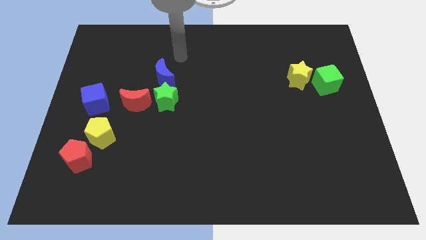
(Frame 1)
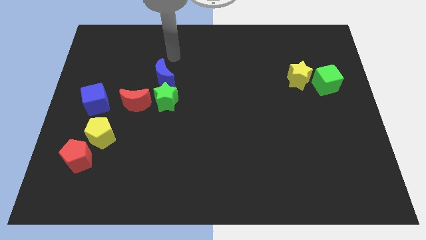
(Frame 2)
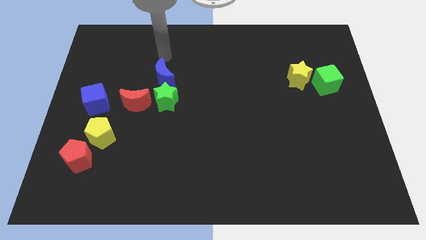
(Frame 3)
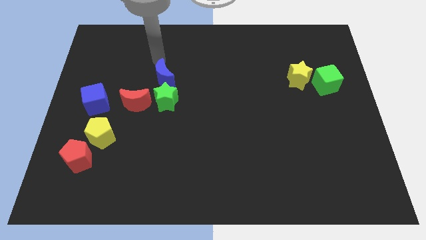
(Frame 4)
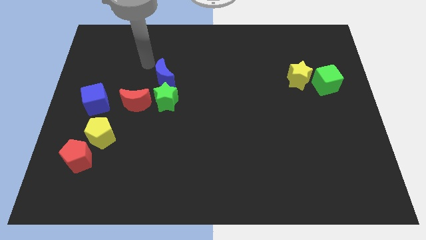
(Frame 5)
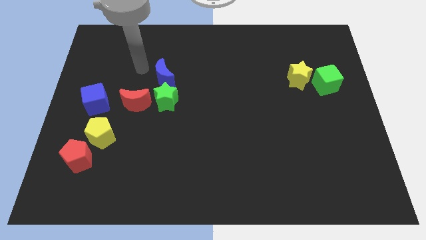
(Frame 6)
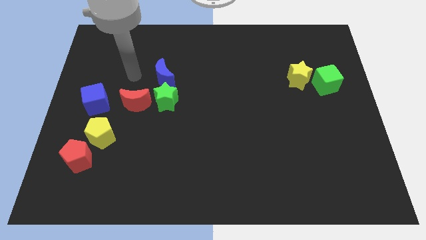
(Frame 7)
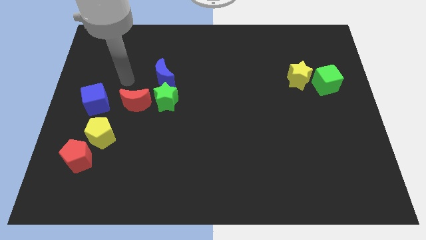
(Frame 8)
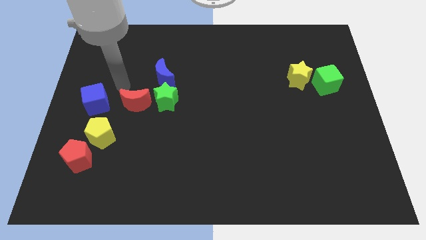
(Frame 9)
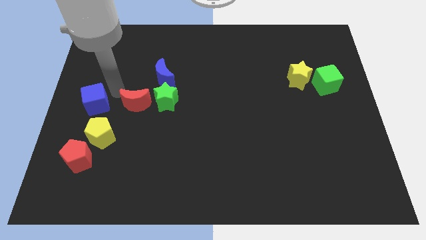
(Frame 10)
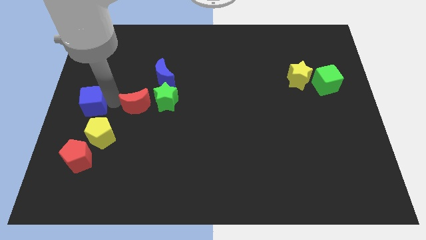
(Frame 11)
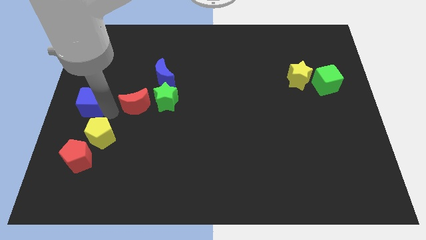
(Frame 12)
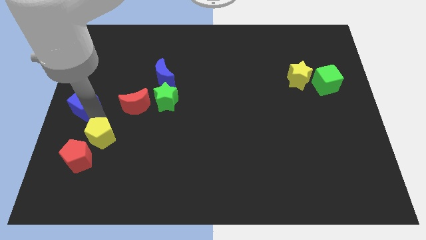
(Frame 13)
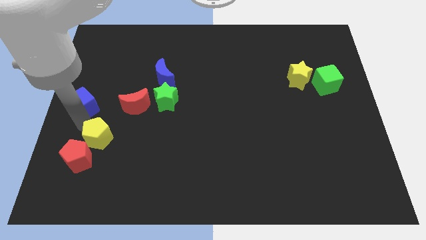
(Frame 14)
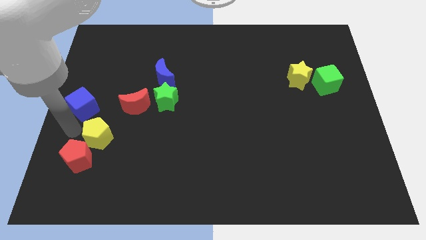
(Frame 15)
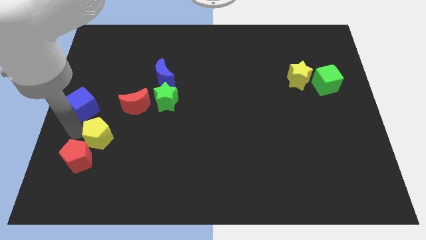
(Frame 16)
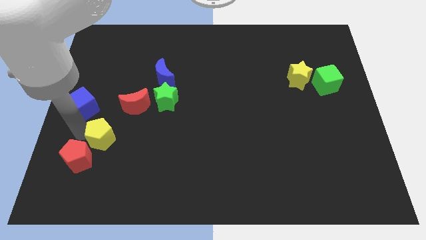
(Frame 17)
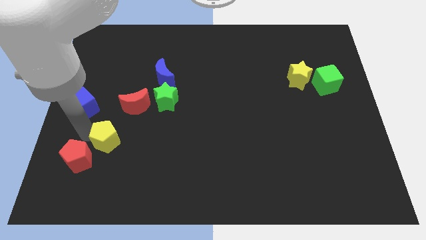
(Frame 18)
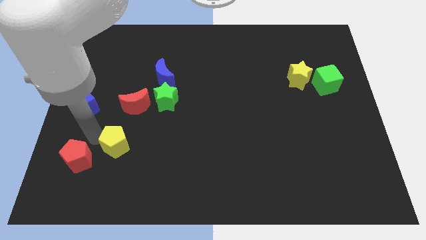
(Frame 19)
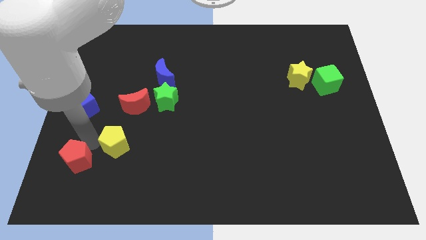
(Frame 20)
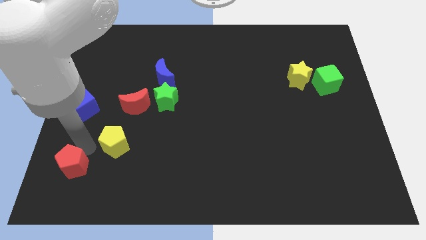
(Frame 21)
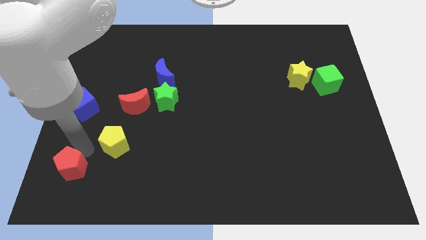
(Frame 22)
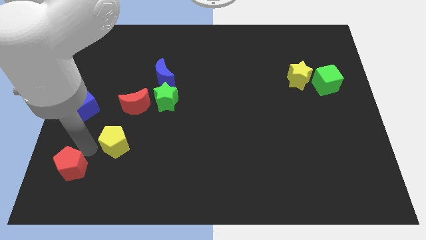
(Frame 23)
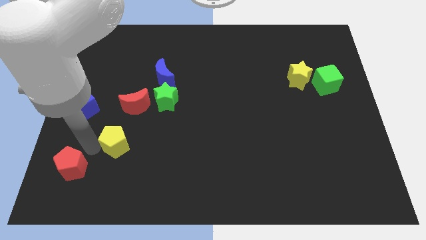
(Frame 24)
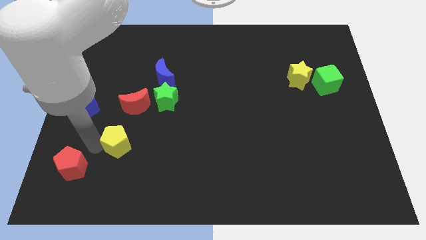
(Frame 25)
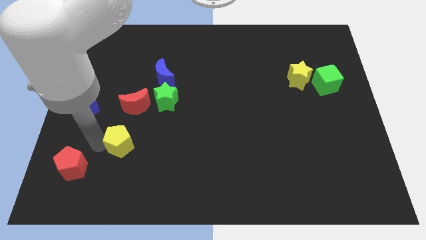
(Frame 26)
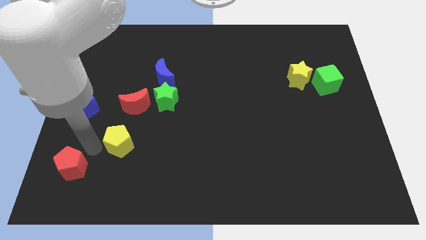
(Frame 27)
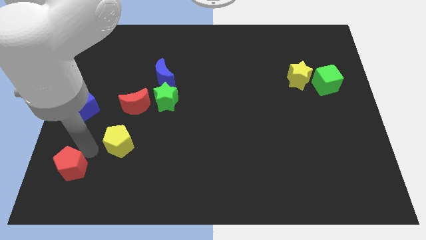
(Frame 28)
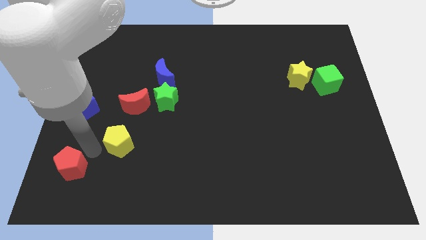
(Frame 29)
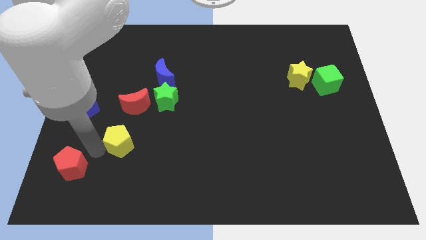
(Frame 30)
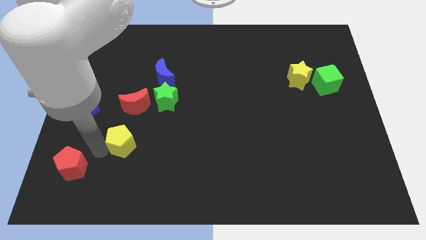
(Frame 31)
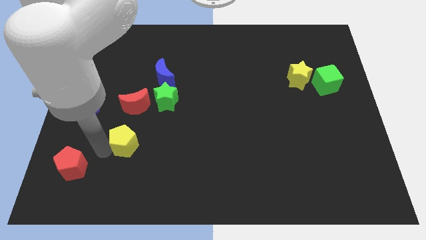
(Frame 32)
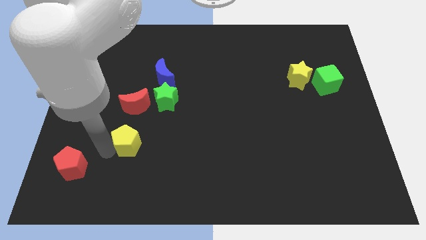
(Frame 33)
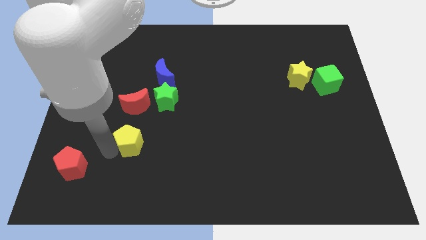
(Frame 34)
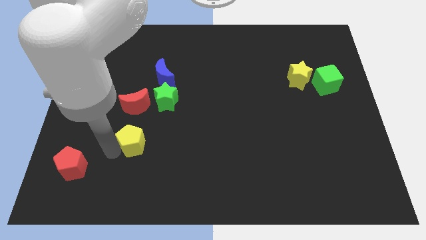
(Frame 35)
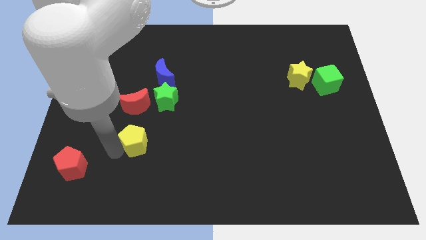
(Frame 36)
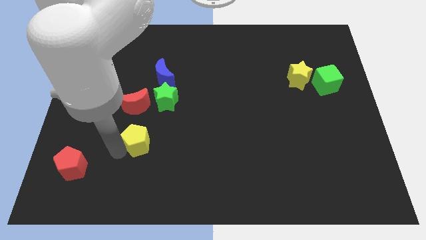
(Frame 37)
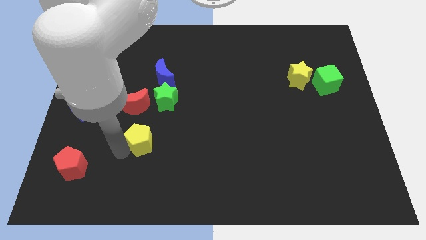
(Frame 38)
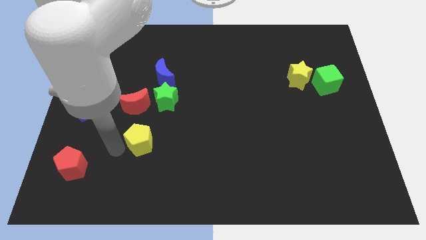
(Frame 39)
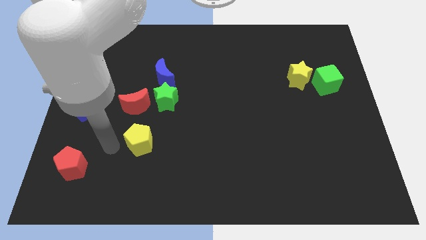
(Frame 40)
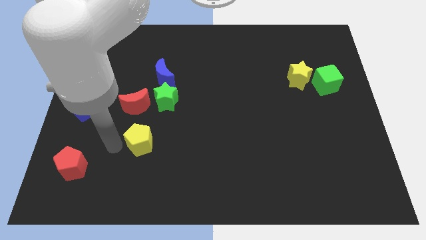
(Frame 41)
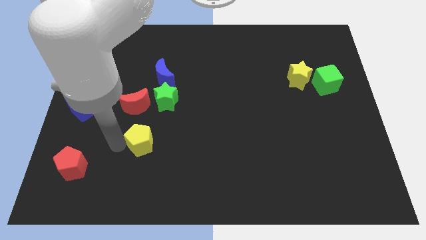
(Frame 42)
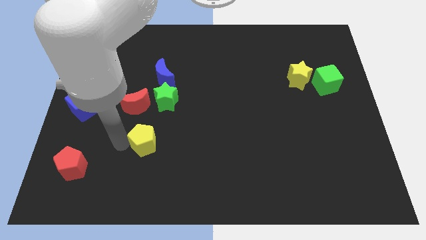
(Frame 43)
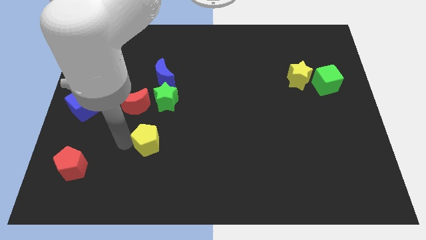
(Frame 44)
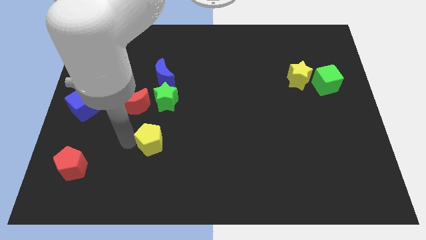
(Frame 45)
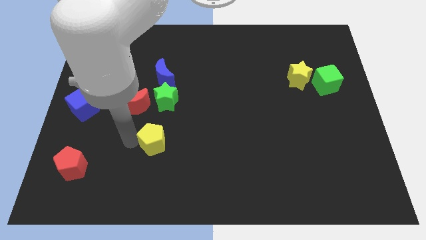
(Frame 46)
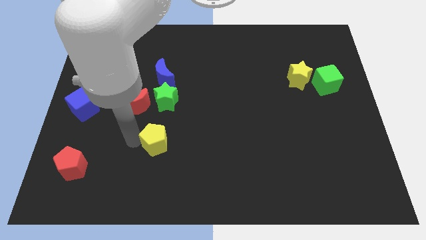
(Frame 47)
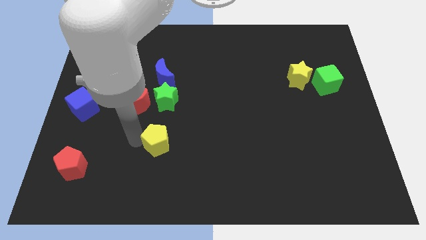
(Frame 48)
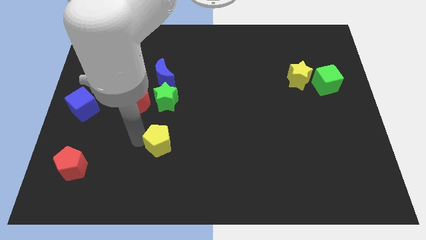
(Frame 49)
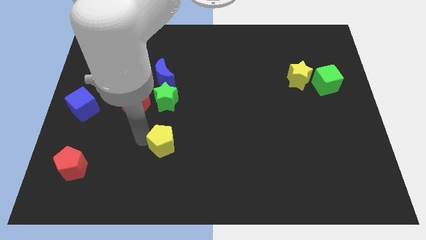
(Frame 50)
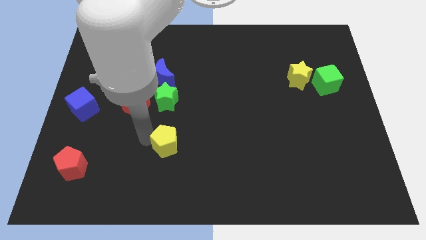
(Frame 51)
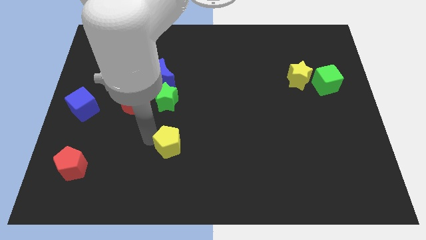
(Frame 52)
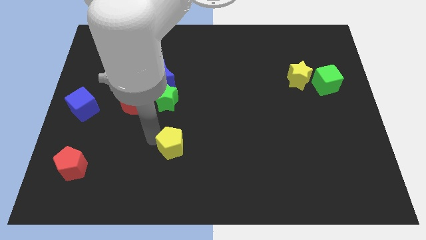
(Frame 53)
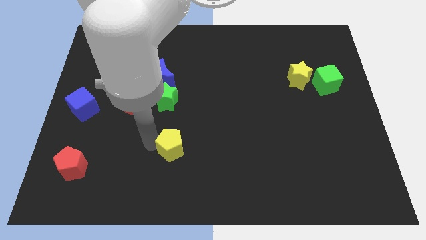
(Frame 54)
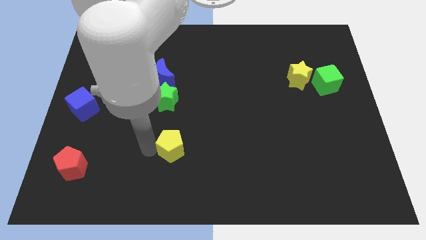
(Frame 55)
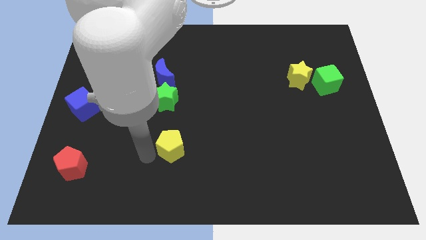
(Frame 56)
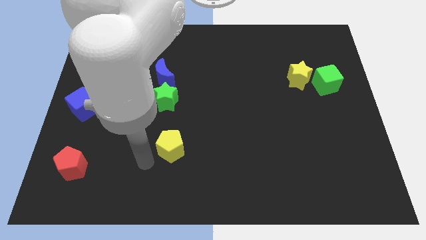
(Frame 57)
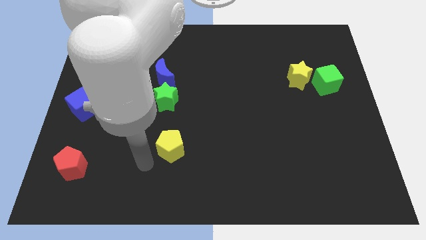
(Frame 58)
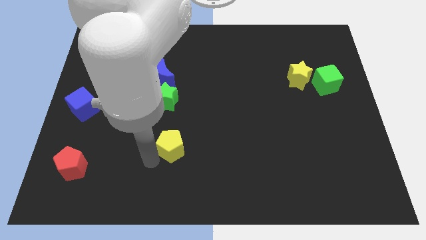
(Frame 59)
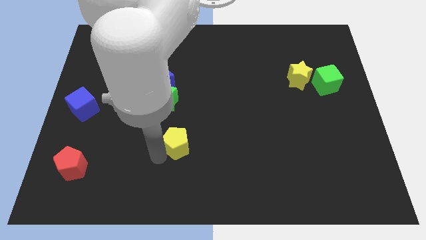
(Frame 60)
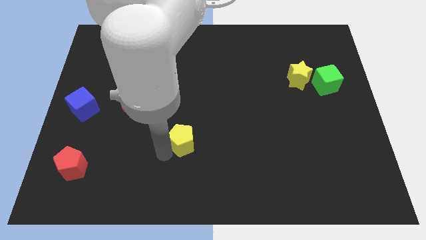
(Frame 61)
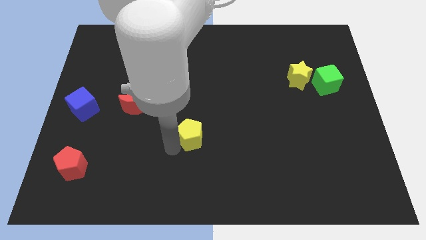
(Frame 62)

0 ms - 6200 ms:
push the yellow pentagon right

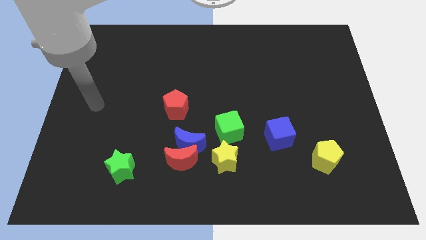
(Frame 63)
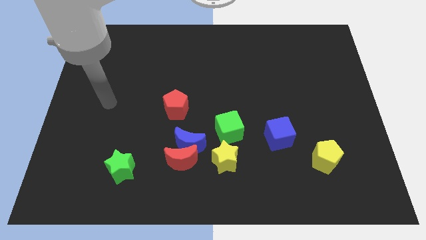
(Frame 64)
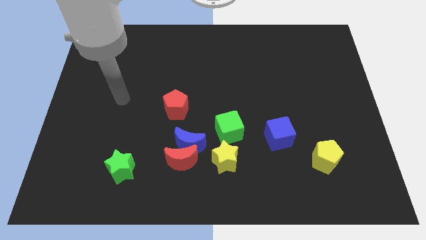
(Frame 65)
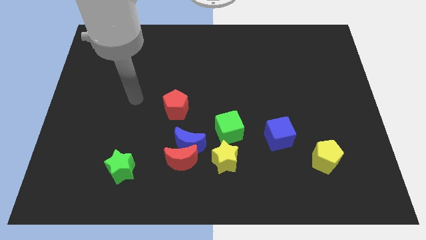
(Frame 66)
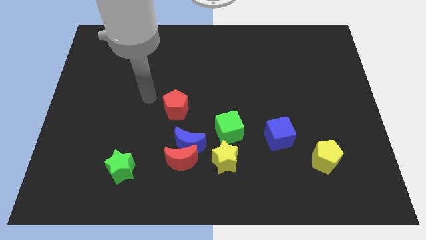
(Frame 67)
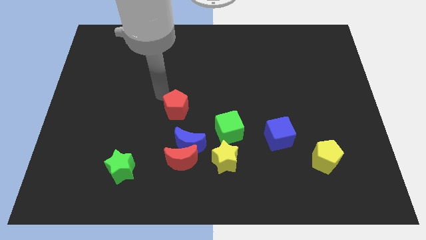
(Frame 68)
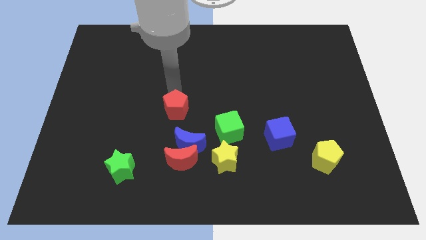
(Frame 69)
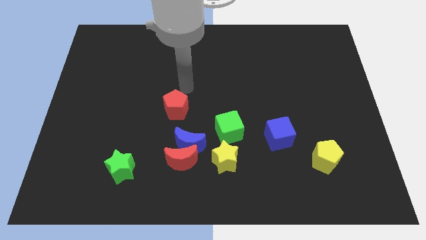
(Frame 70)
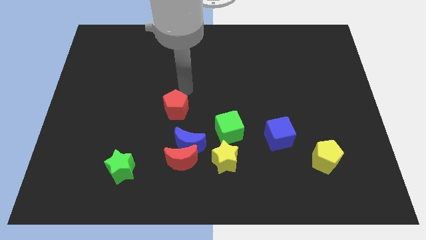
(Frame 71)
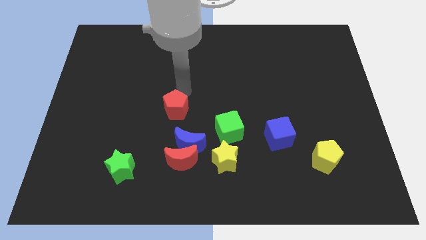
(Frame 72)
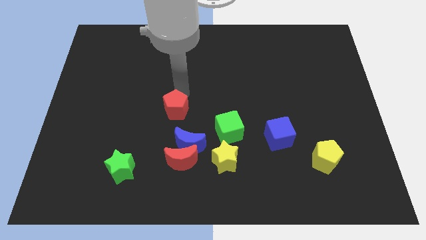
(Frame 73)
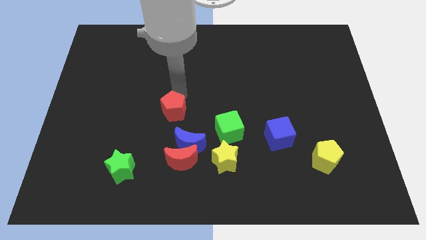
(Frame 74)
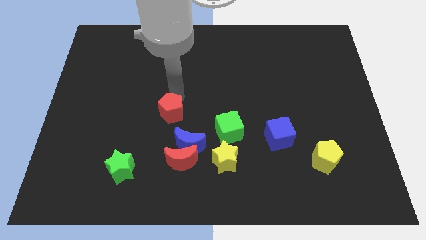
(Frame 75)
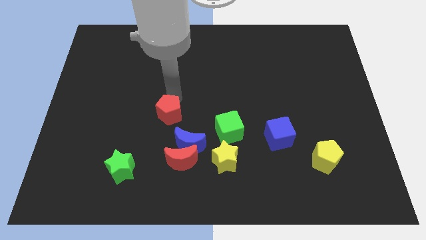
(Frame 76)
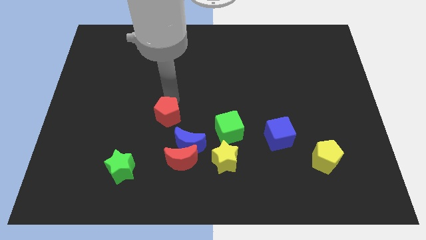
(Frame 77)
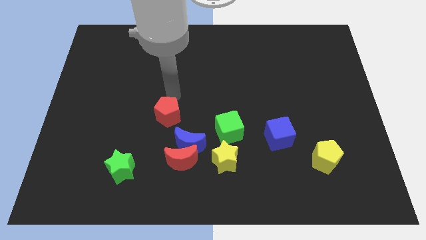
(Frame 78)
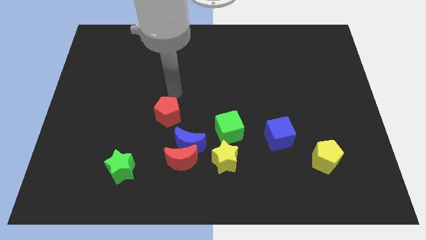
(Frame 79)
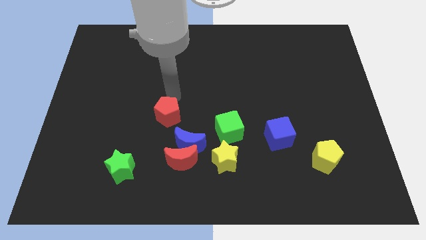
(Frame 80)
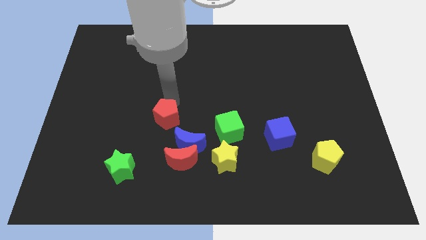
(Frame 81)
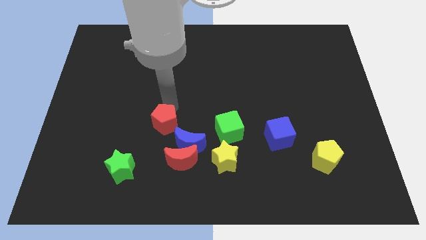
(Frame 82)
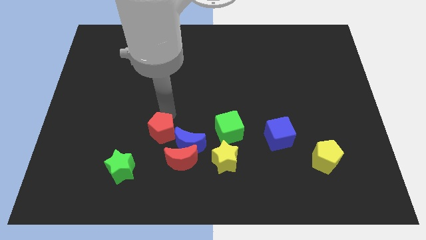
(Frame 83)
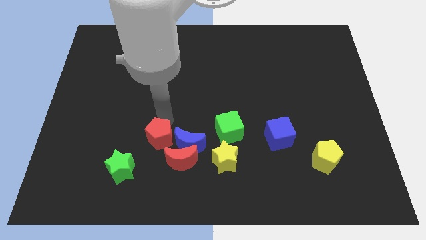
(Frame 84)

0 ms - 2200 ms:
move the red pentagon downwards somewhat
